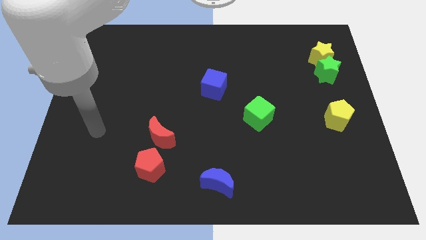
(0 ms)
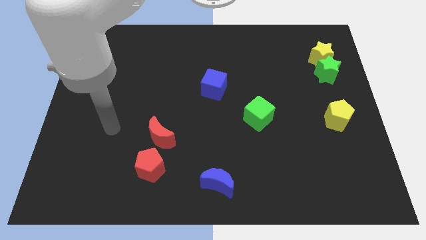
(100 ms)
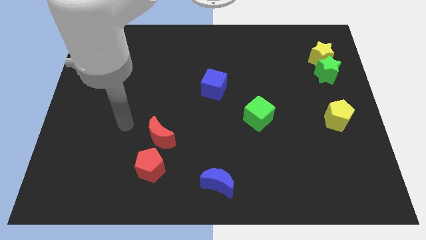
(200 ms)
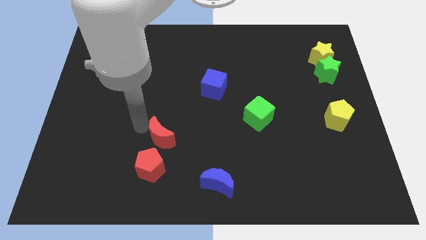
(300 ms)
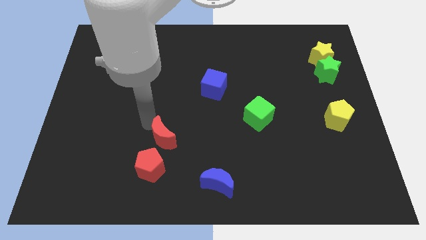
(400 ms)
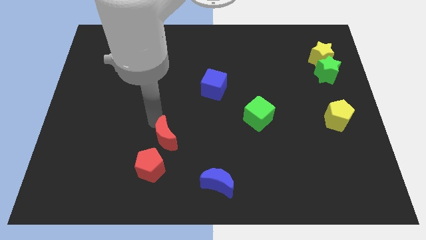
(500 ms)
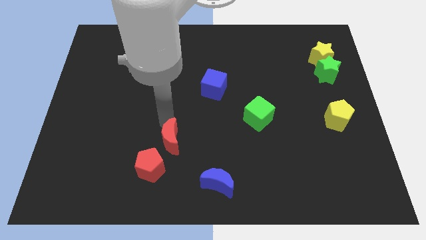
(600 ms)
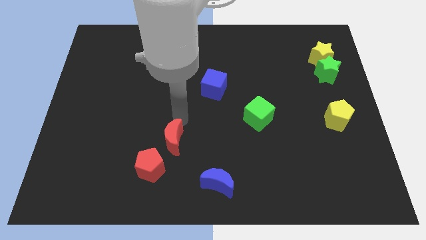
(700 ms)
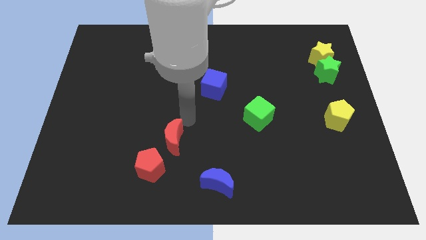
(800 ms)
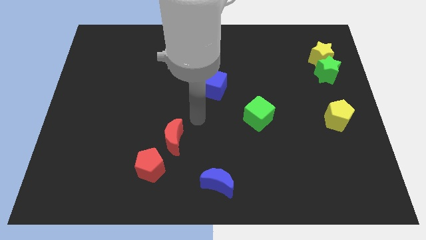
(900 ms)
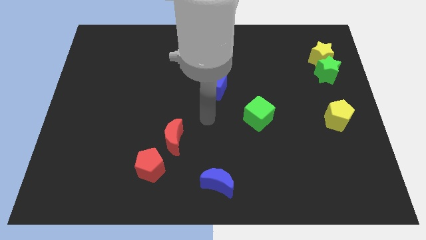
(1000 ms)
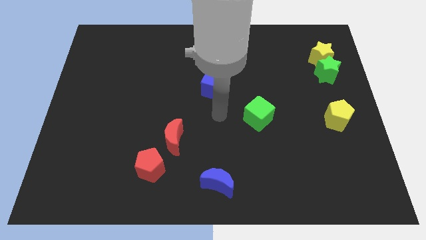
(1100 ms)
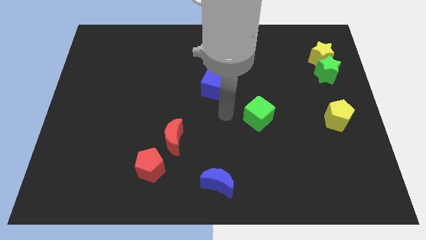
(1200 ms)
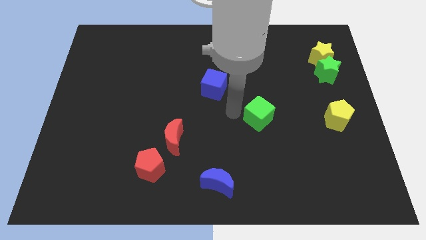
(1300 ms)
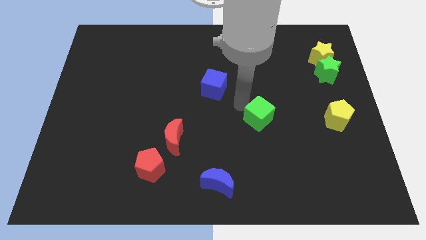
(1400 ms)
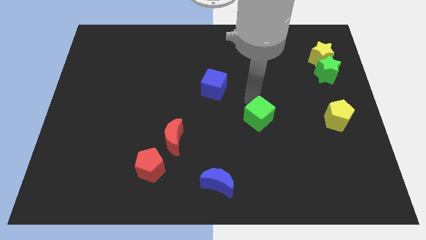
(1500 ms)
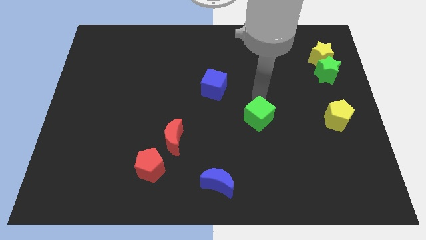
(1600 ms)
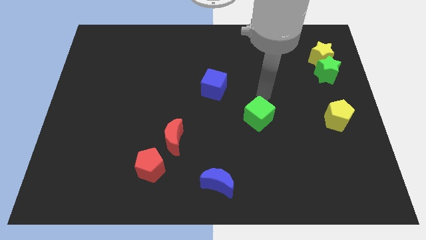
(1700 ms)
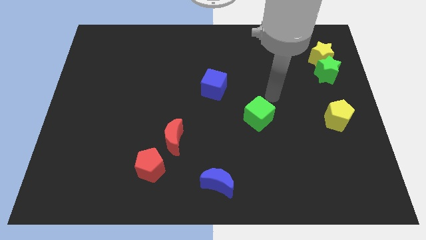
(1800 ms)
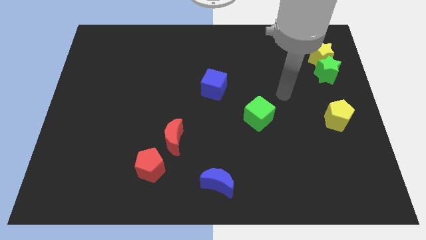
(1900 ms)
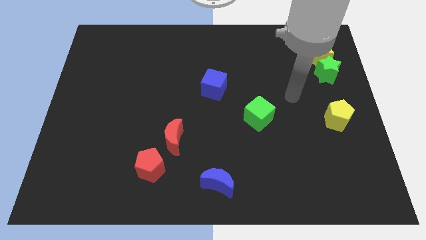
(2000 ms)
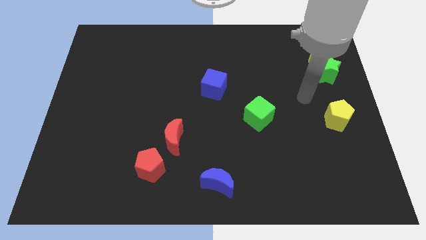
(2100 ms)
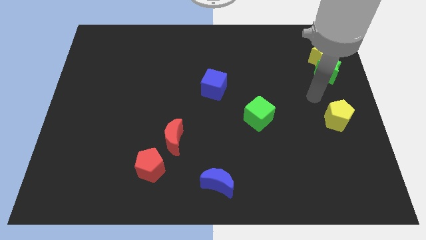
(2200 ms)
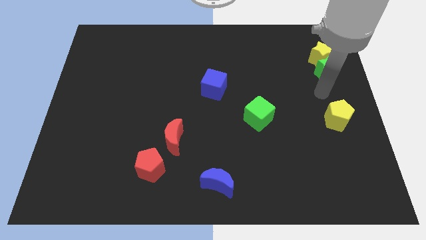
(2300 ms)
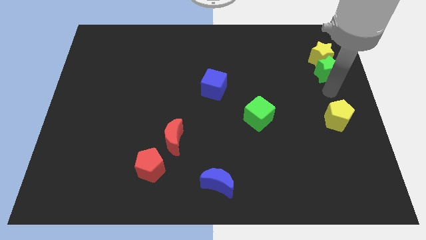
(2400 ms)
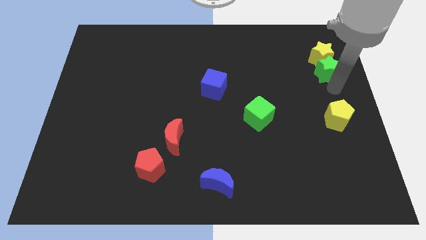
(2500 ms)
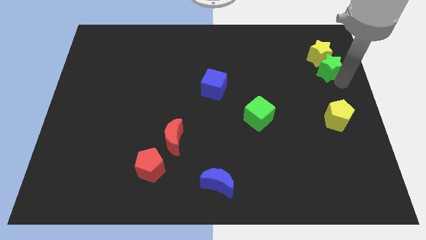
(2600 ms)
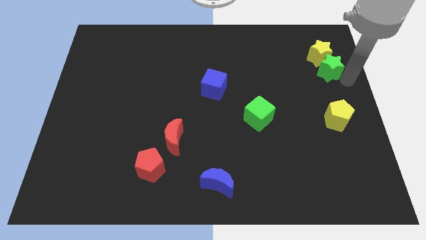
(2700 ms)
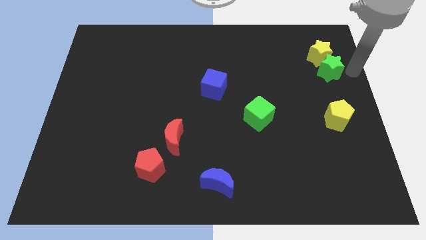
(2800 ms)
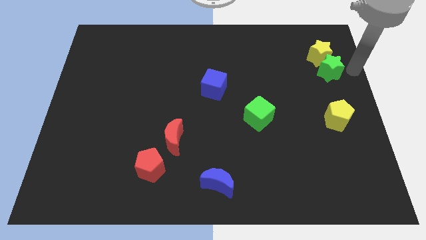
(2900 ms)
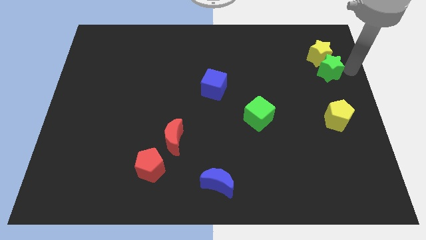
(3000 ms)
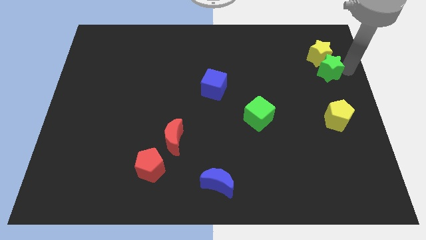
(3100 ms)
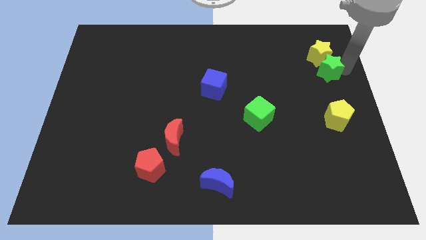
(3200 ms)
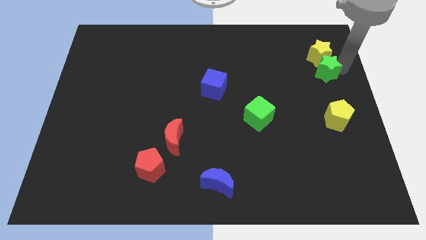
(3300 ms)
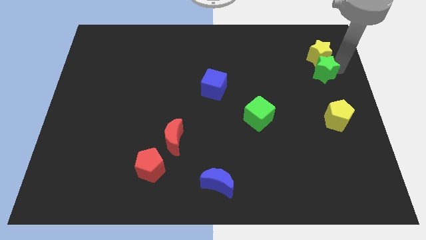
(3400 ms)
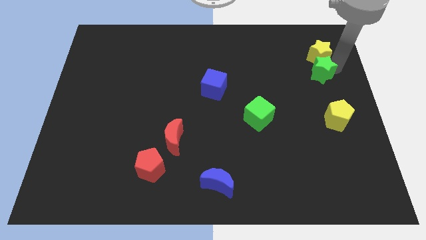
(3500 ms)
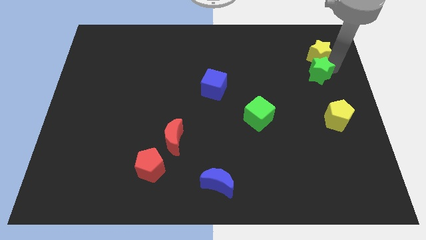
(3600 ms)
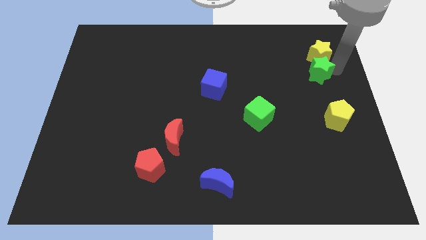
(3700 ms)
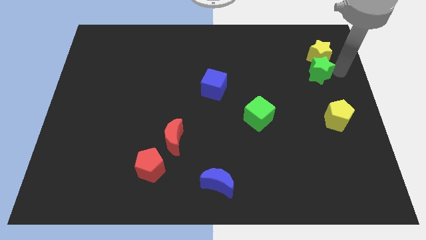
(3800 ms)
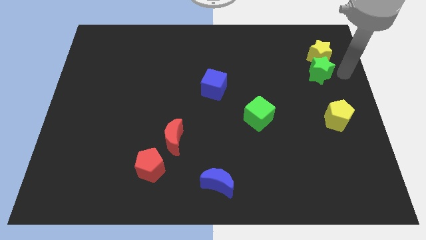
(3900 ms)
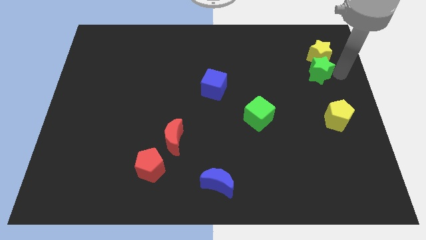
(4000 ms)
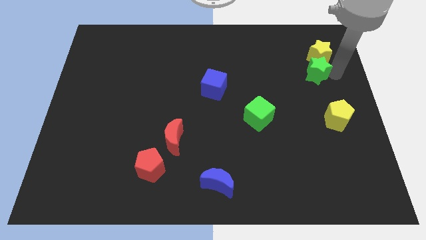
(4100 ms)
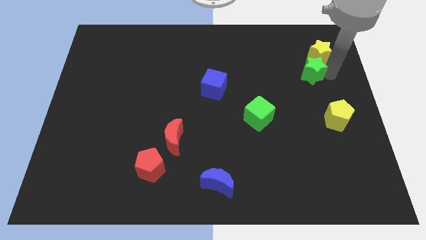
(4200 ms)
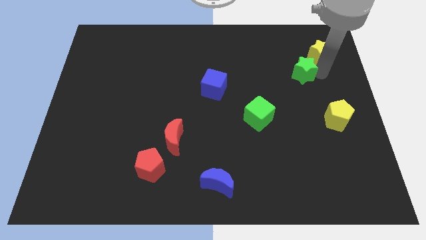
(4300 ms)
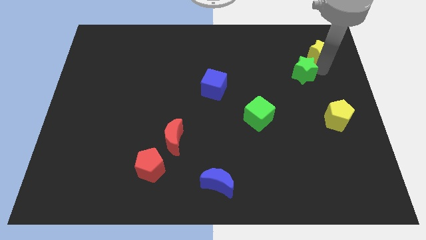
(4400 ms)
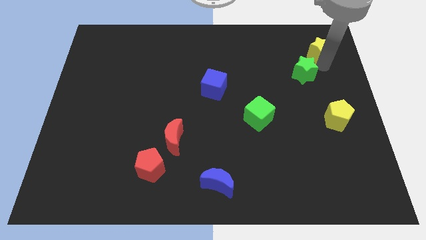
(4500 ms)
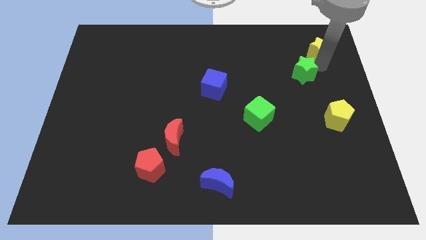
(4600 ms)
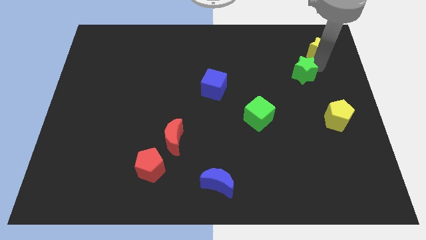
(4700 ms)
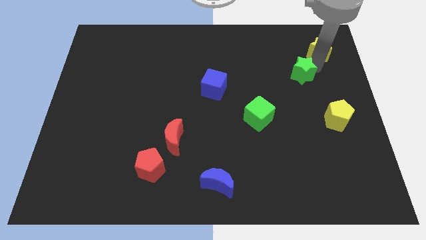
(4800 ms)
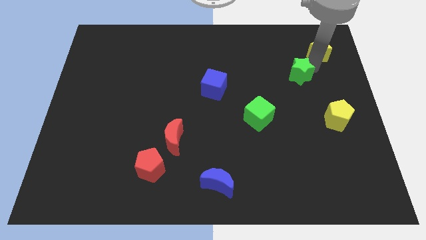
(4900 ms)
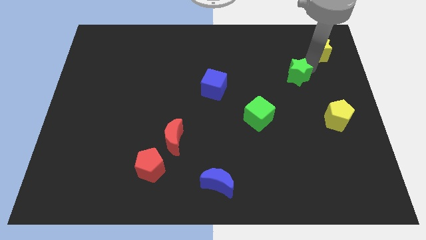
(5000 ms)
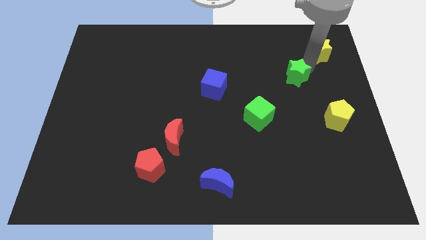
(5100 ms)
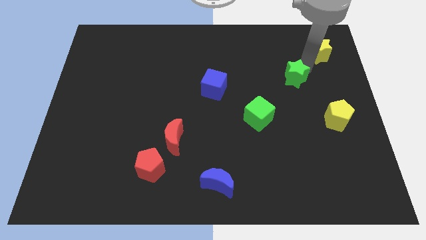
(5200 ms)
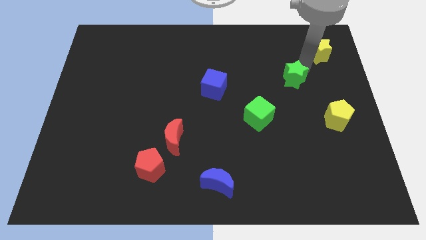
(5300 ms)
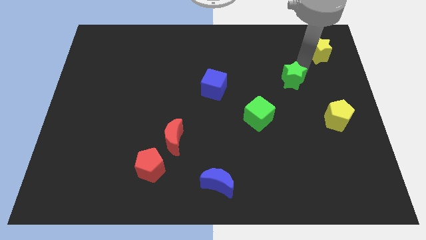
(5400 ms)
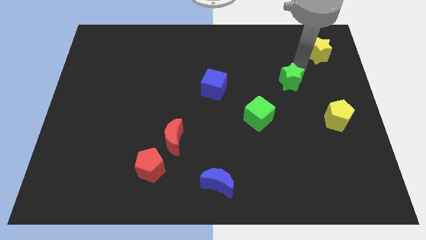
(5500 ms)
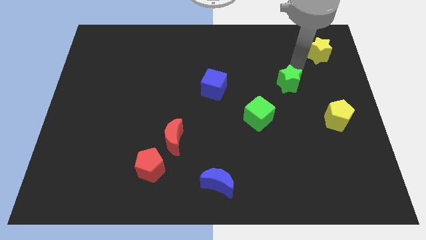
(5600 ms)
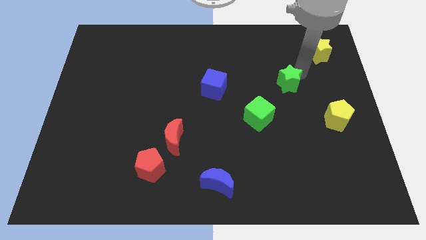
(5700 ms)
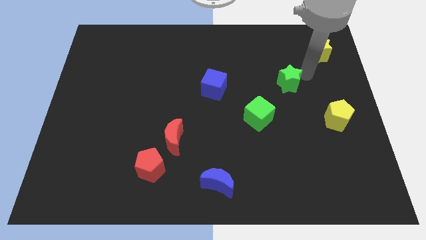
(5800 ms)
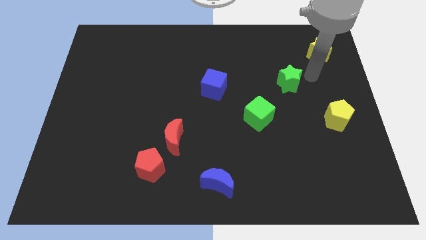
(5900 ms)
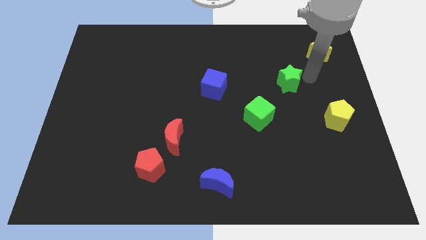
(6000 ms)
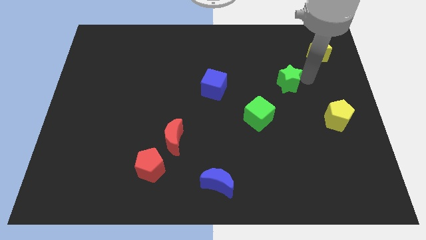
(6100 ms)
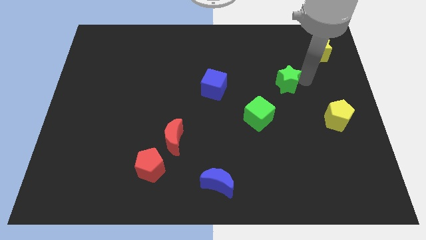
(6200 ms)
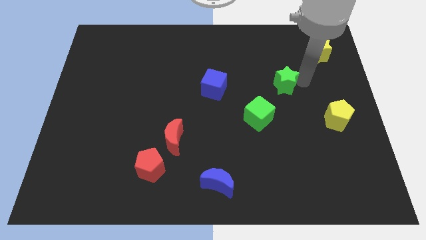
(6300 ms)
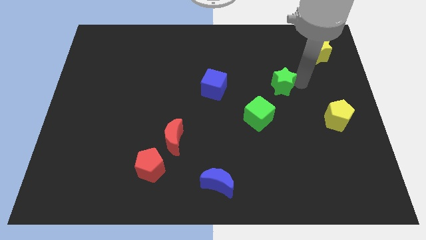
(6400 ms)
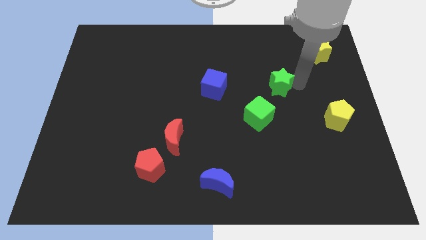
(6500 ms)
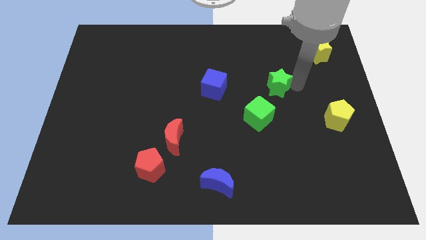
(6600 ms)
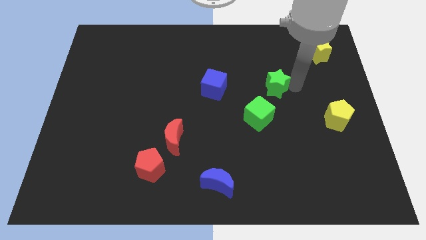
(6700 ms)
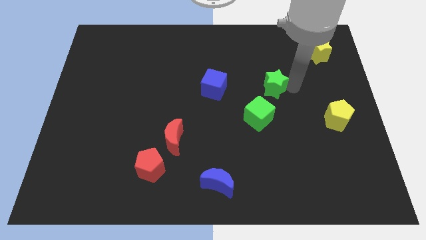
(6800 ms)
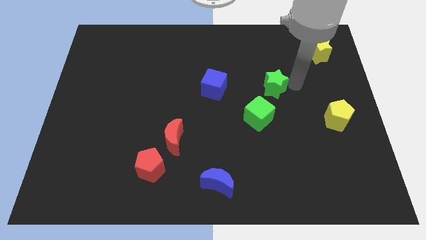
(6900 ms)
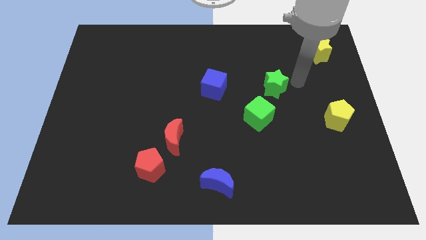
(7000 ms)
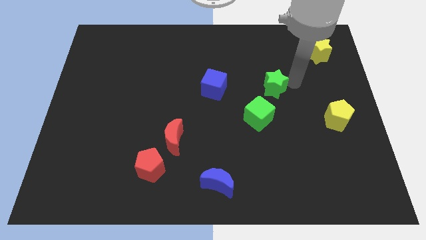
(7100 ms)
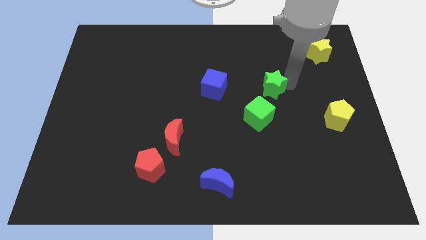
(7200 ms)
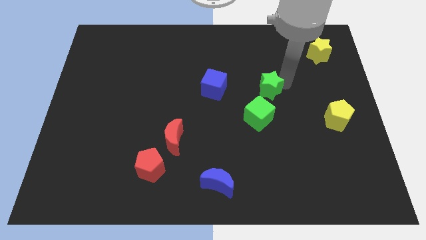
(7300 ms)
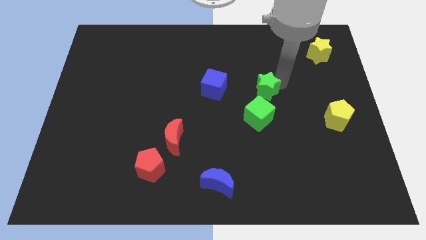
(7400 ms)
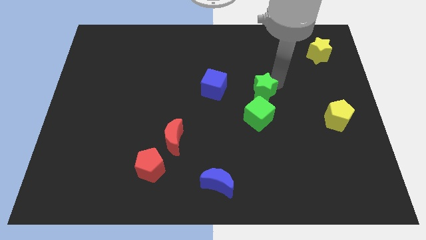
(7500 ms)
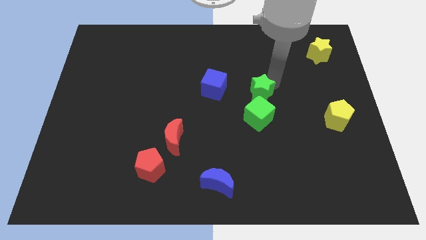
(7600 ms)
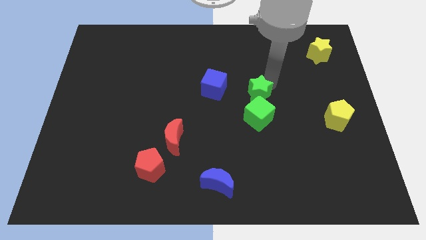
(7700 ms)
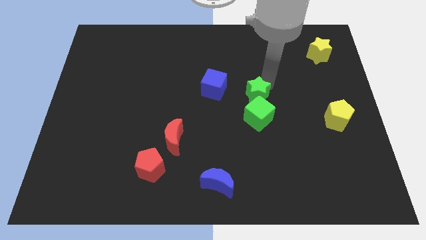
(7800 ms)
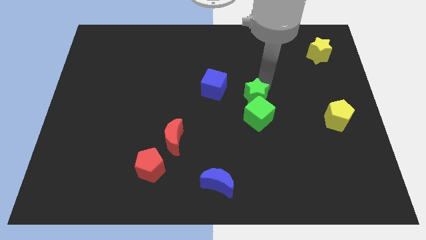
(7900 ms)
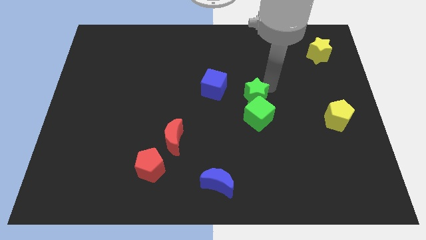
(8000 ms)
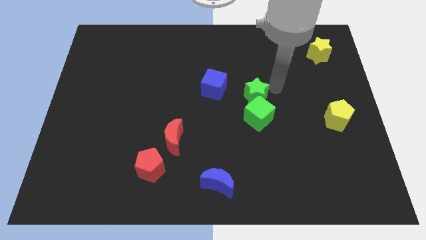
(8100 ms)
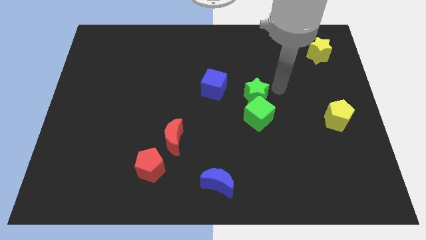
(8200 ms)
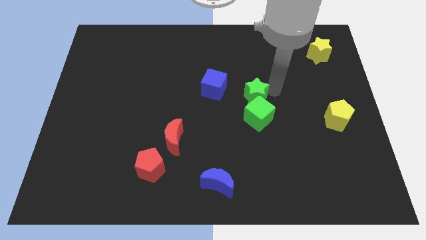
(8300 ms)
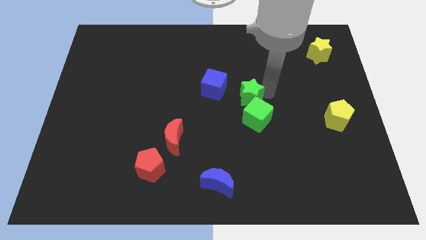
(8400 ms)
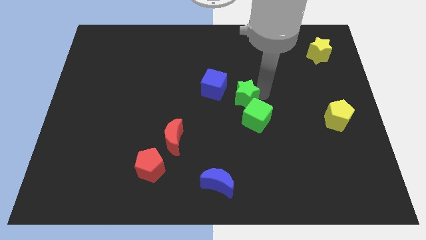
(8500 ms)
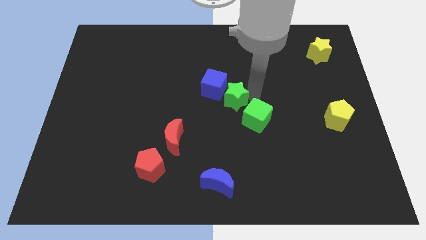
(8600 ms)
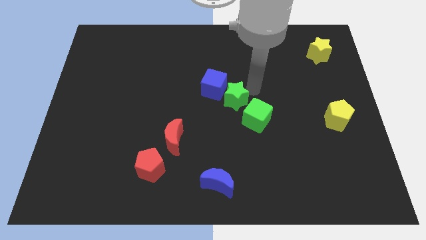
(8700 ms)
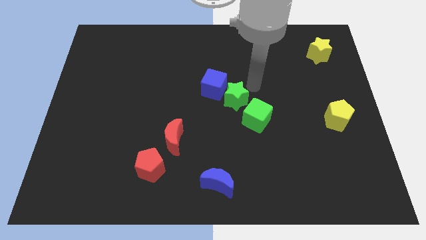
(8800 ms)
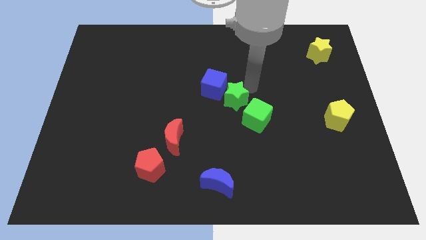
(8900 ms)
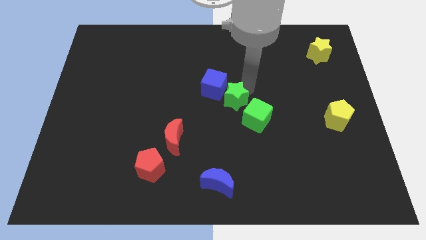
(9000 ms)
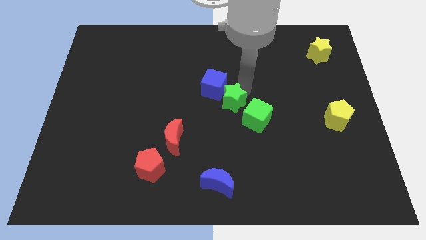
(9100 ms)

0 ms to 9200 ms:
slide the green star to the left of the green cube
